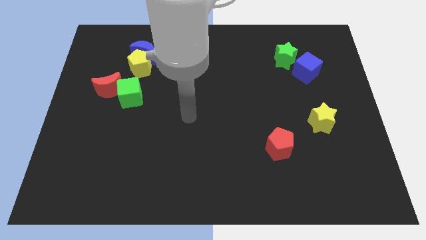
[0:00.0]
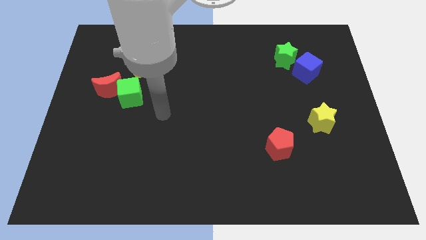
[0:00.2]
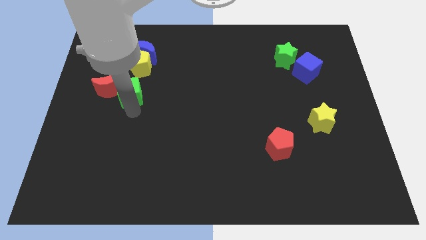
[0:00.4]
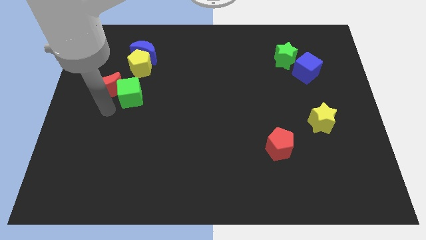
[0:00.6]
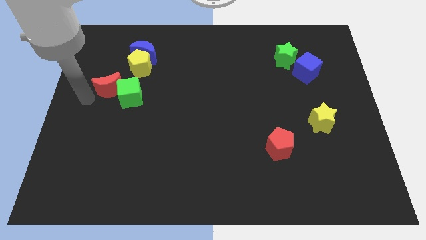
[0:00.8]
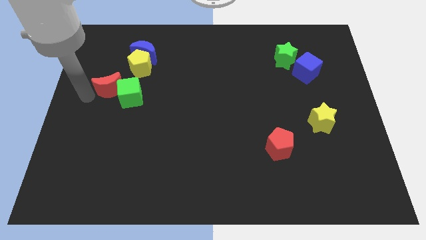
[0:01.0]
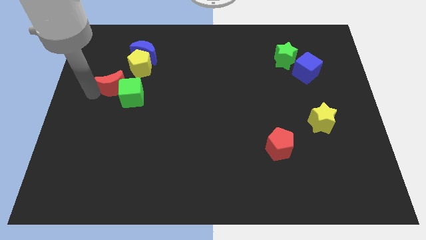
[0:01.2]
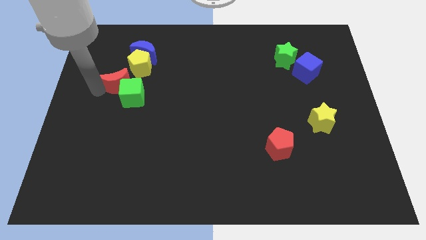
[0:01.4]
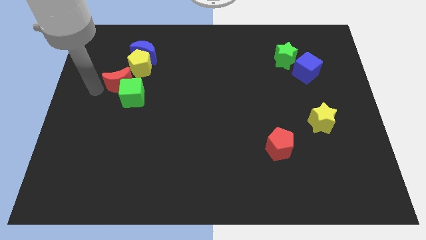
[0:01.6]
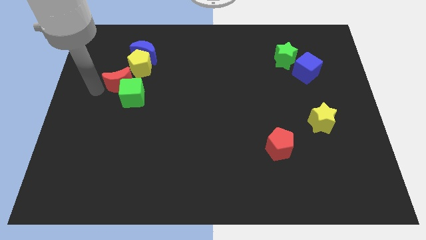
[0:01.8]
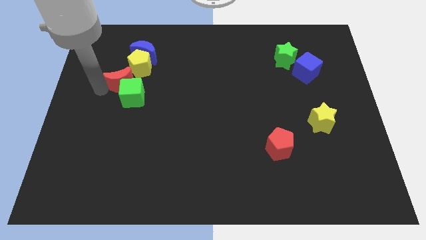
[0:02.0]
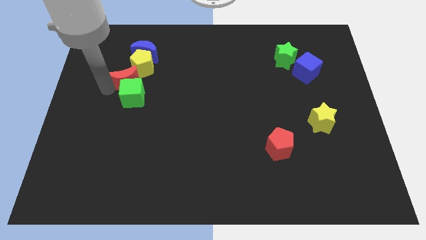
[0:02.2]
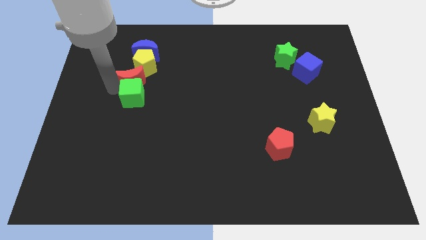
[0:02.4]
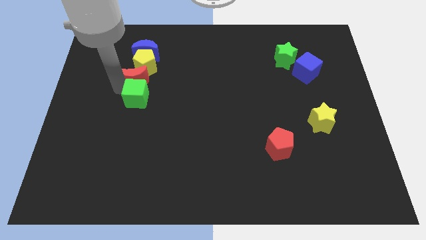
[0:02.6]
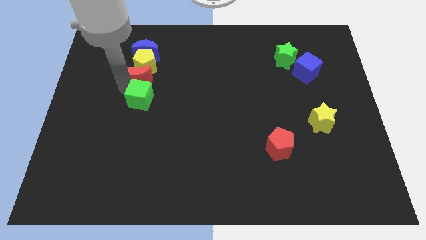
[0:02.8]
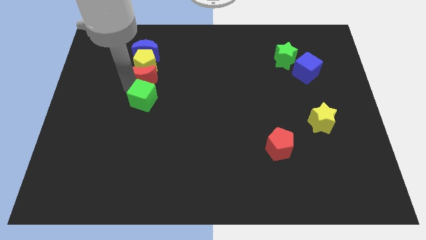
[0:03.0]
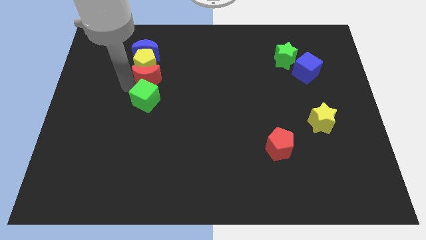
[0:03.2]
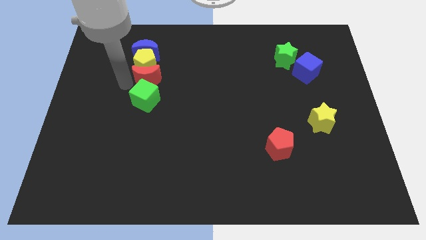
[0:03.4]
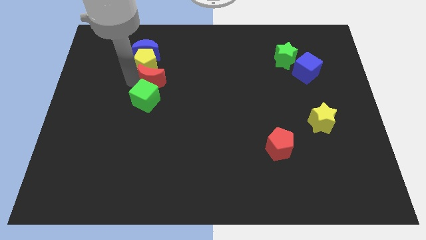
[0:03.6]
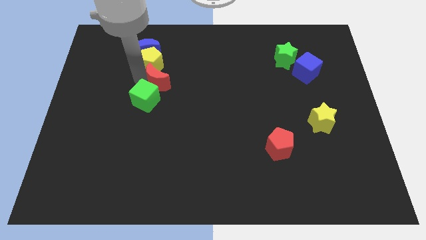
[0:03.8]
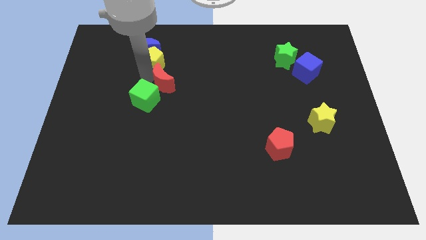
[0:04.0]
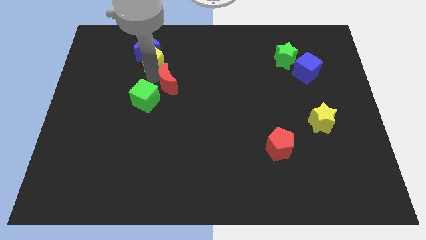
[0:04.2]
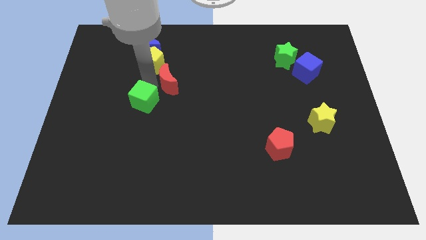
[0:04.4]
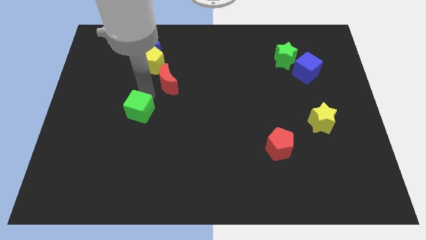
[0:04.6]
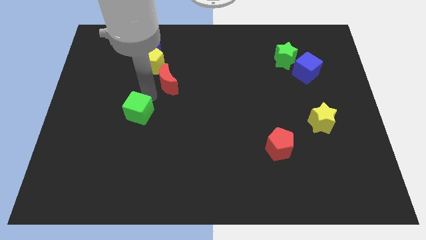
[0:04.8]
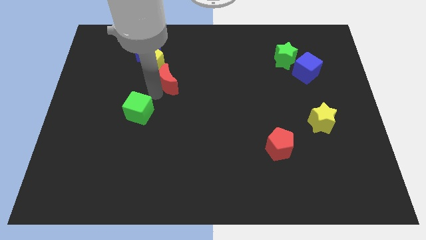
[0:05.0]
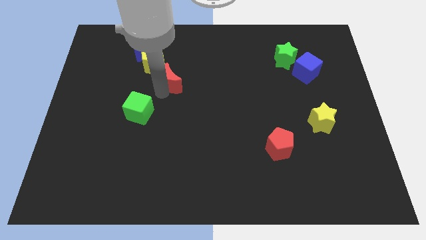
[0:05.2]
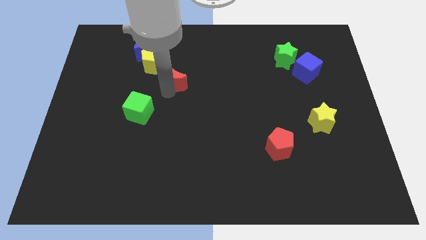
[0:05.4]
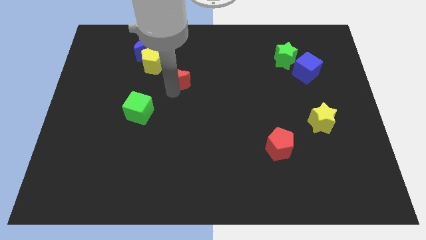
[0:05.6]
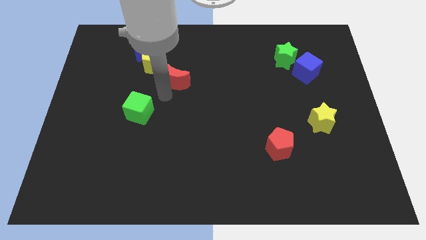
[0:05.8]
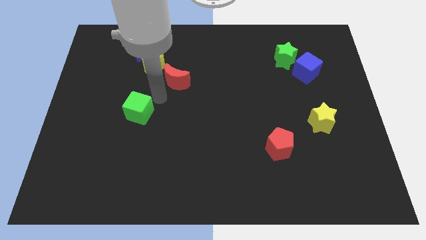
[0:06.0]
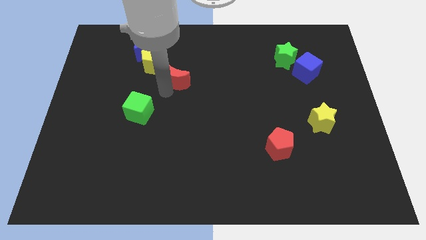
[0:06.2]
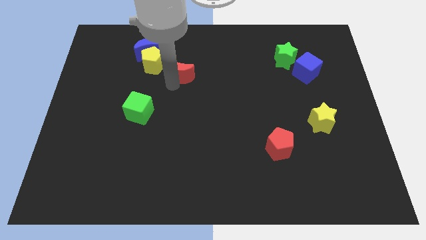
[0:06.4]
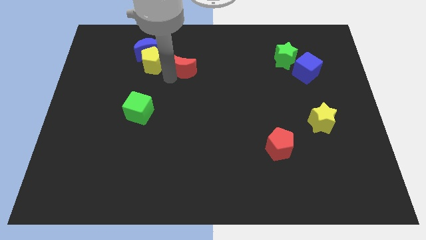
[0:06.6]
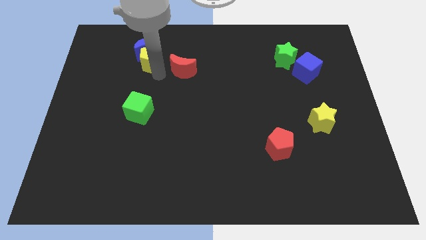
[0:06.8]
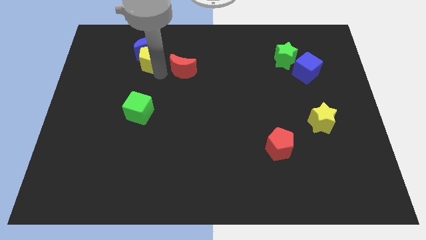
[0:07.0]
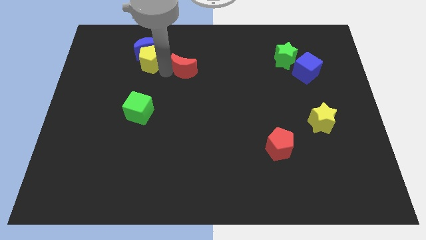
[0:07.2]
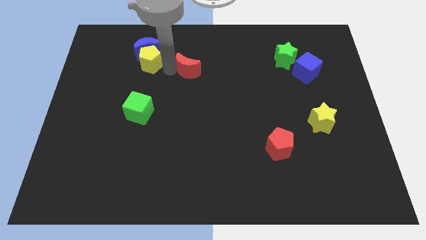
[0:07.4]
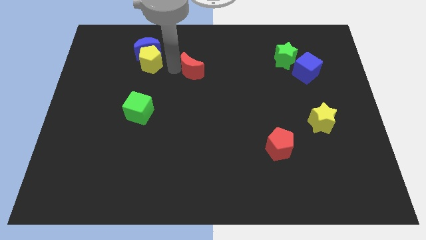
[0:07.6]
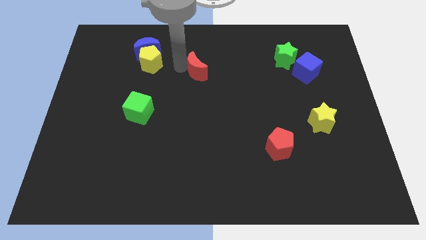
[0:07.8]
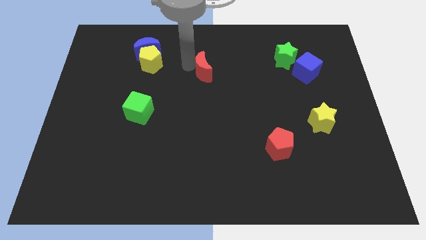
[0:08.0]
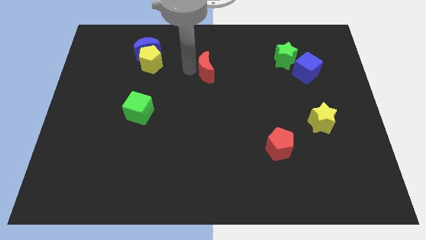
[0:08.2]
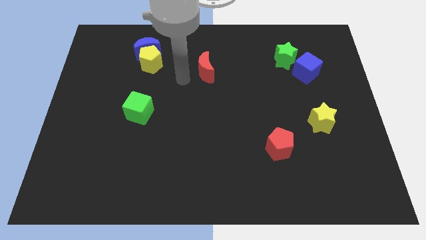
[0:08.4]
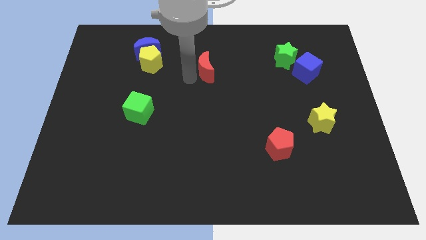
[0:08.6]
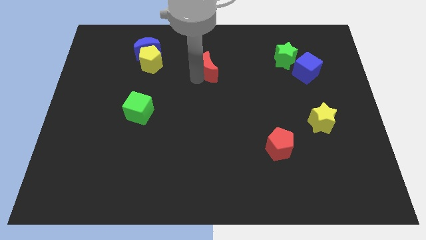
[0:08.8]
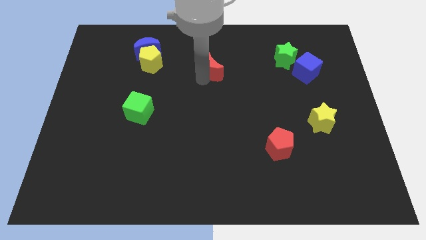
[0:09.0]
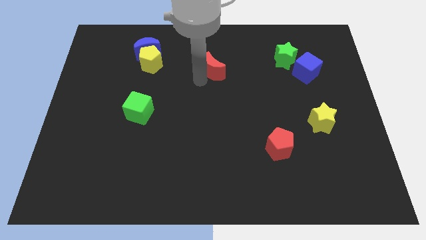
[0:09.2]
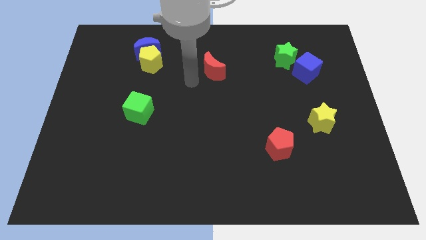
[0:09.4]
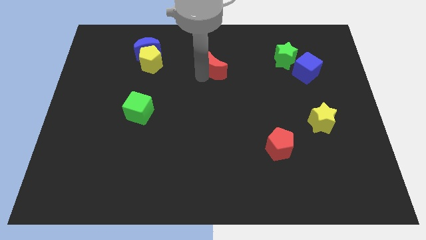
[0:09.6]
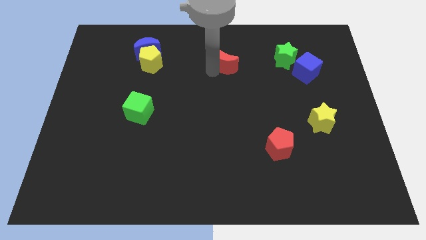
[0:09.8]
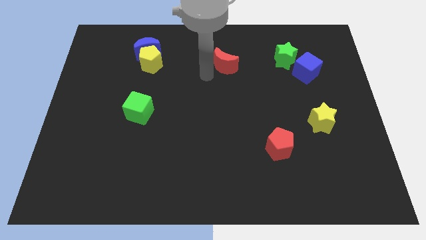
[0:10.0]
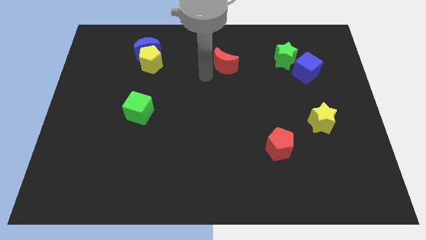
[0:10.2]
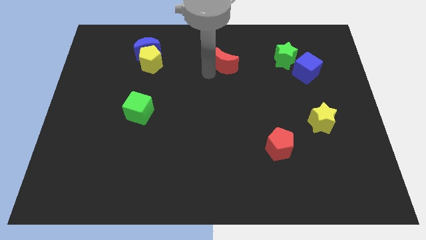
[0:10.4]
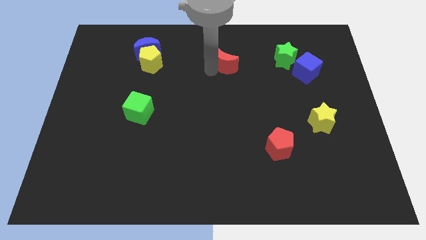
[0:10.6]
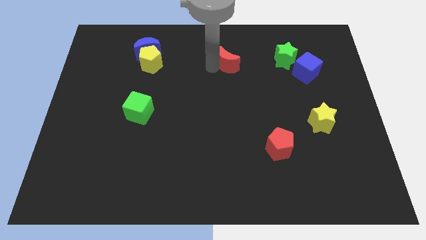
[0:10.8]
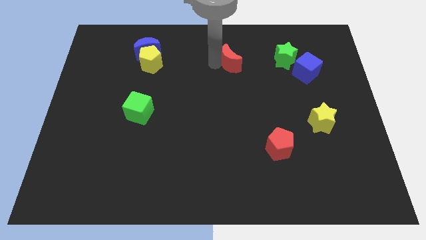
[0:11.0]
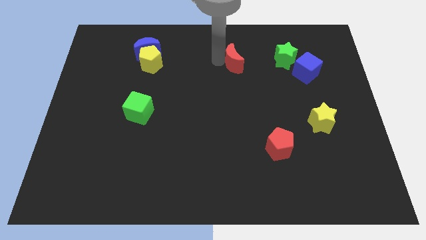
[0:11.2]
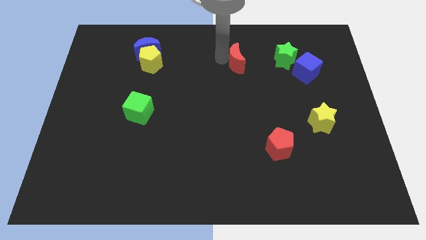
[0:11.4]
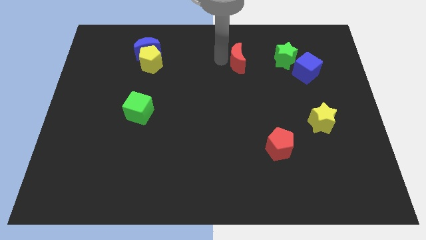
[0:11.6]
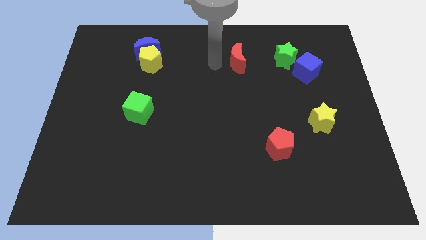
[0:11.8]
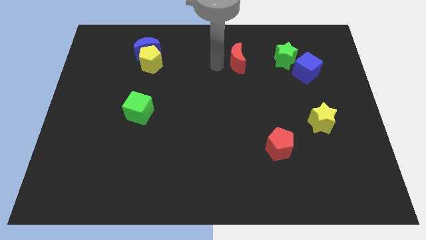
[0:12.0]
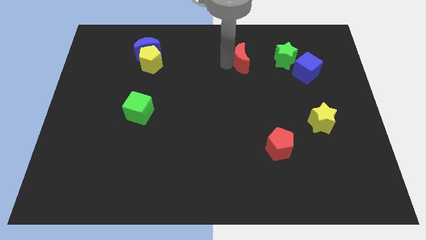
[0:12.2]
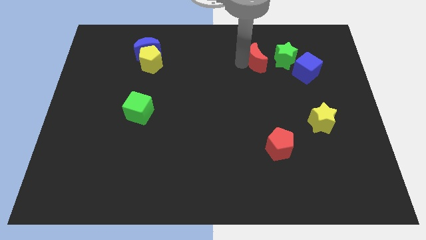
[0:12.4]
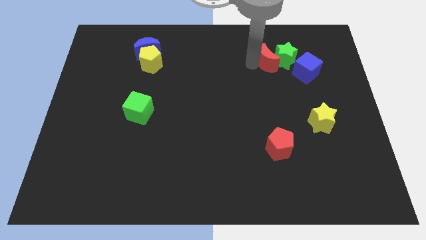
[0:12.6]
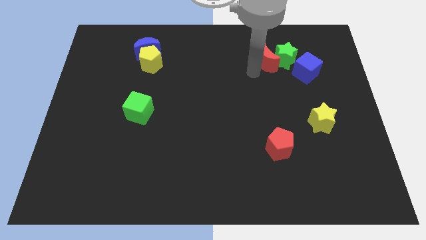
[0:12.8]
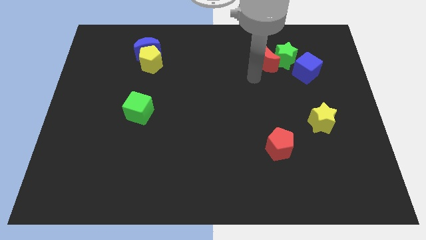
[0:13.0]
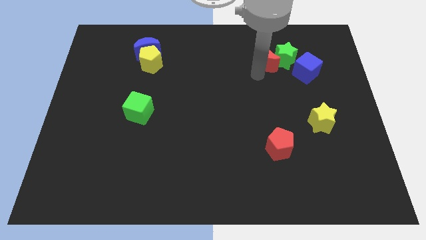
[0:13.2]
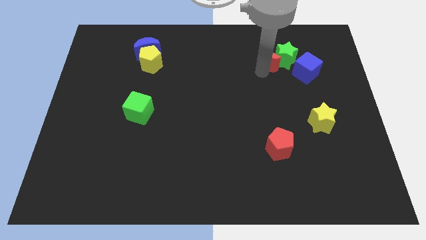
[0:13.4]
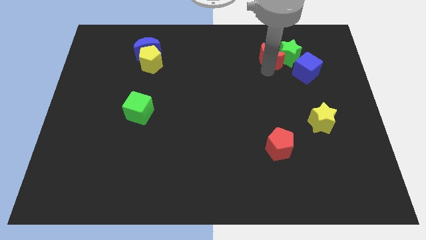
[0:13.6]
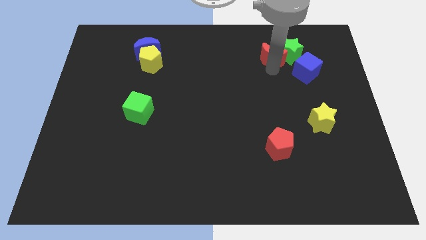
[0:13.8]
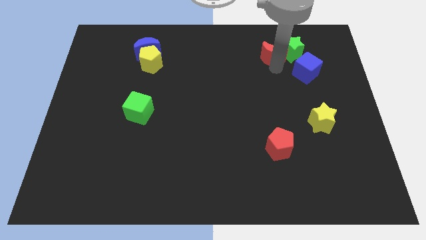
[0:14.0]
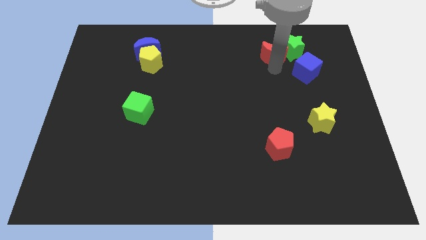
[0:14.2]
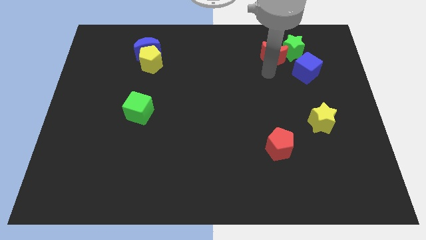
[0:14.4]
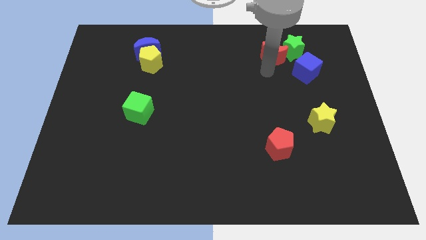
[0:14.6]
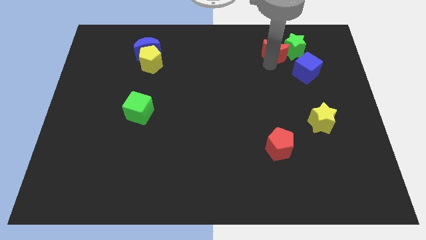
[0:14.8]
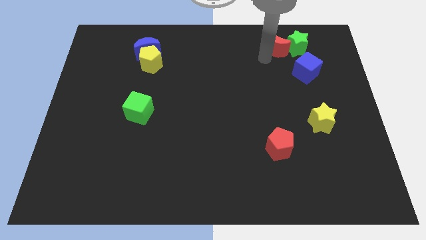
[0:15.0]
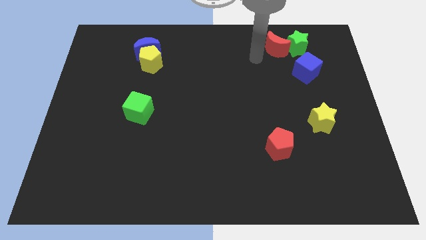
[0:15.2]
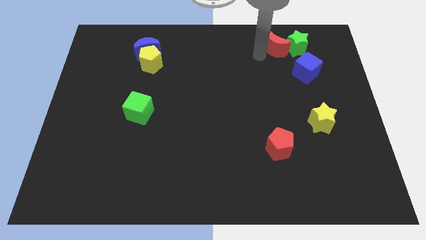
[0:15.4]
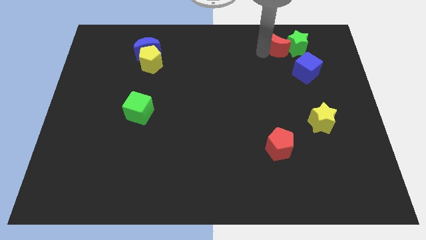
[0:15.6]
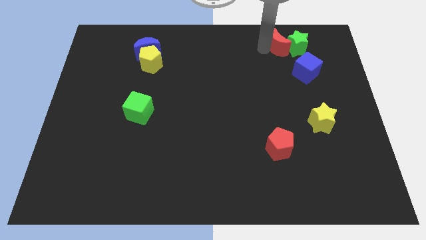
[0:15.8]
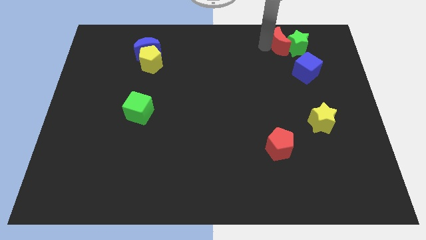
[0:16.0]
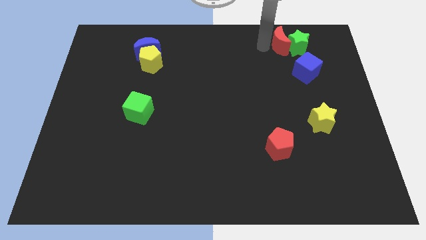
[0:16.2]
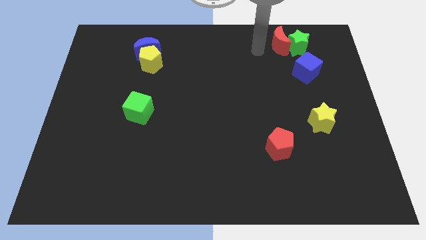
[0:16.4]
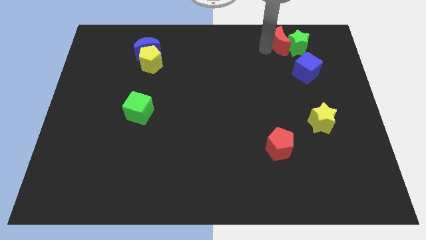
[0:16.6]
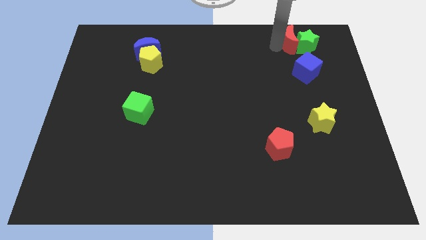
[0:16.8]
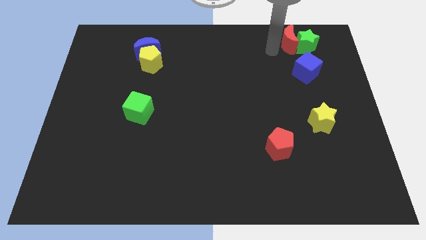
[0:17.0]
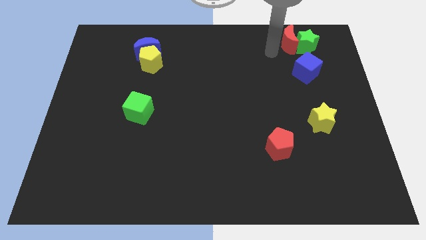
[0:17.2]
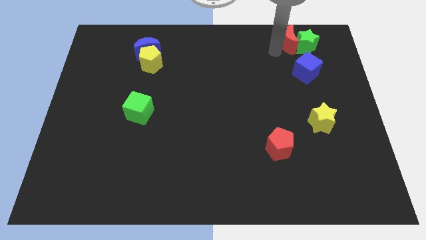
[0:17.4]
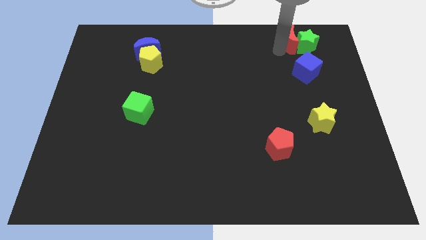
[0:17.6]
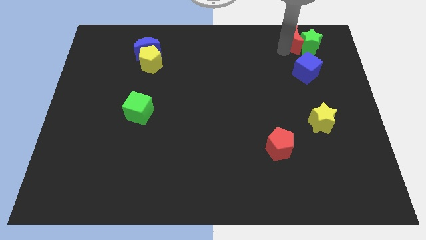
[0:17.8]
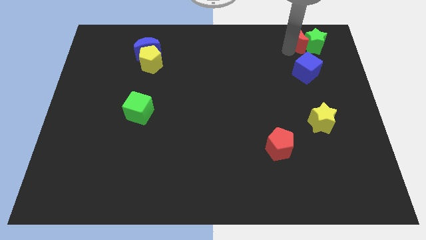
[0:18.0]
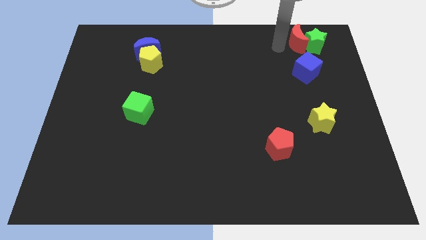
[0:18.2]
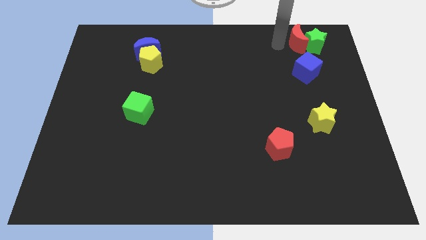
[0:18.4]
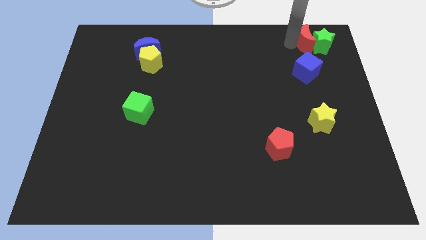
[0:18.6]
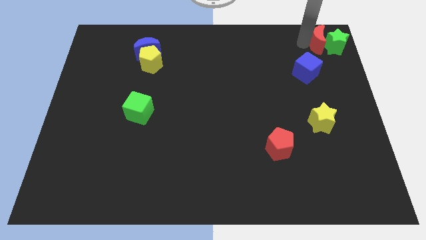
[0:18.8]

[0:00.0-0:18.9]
slide the red moon to the top right corner
